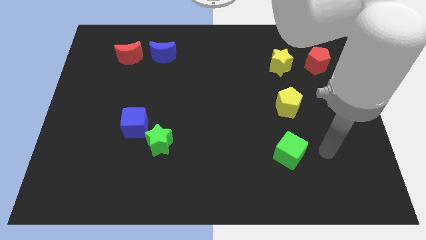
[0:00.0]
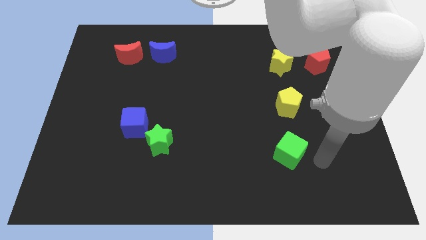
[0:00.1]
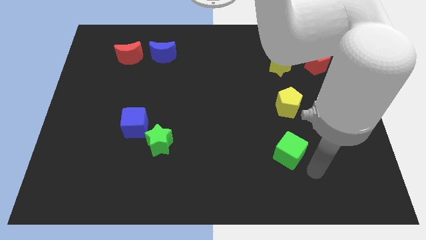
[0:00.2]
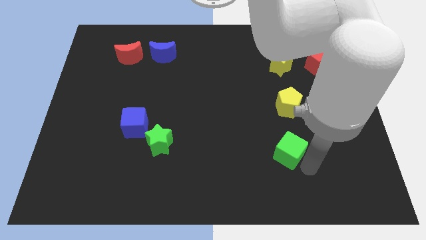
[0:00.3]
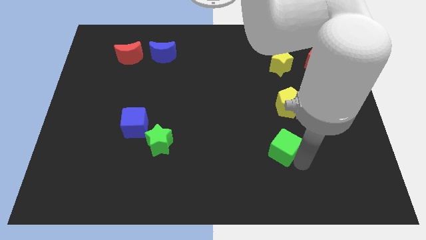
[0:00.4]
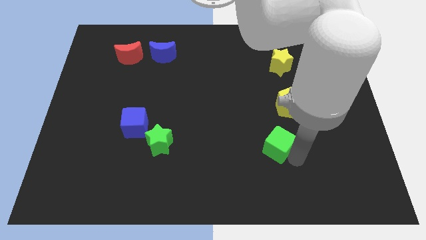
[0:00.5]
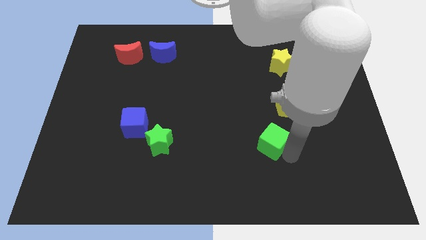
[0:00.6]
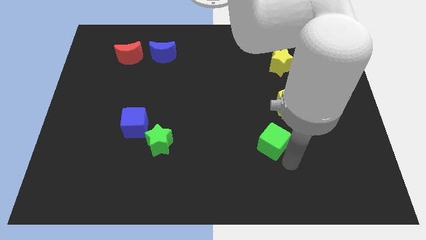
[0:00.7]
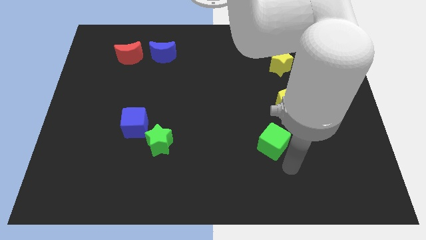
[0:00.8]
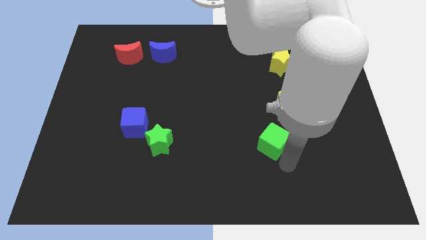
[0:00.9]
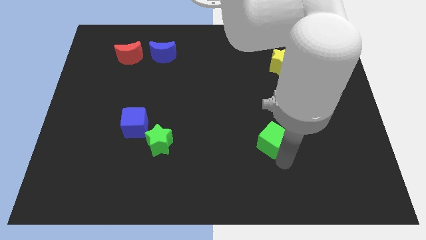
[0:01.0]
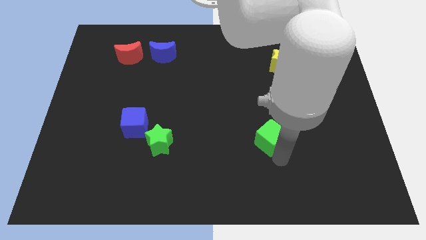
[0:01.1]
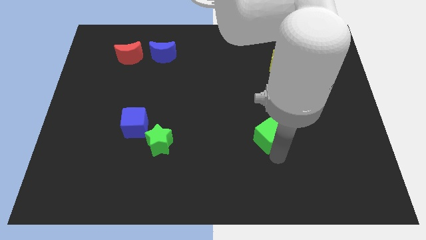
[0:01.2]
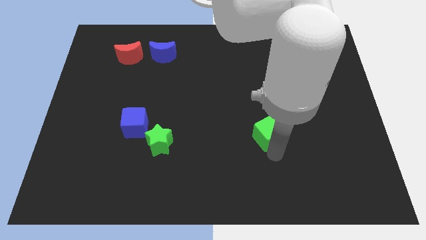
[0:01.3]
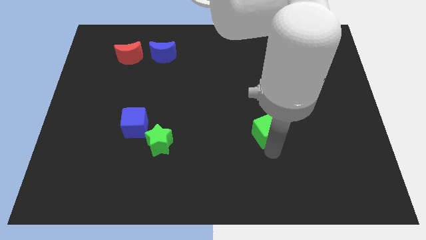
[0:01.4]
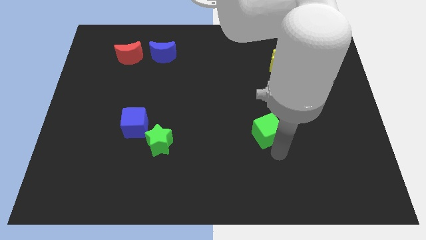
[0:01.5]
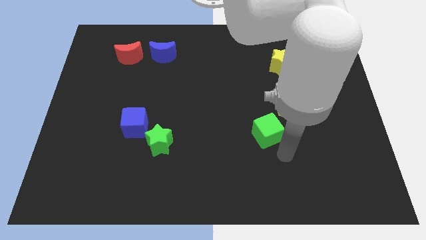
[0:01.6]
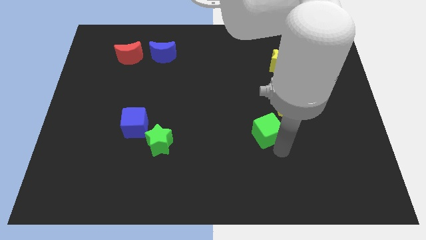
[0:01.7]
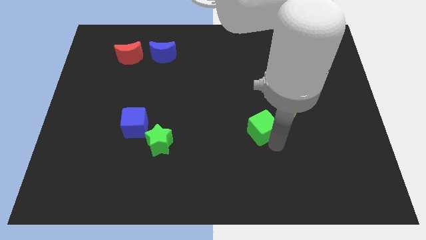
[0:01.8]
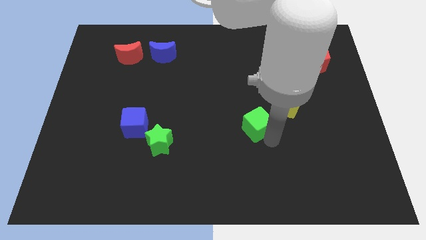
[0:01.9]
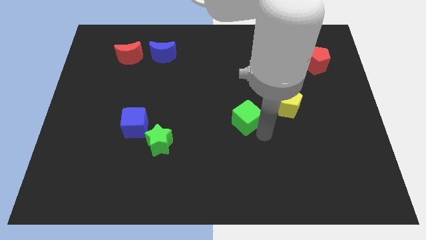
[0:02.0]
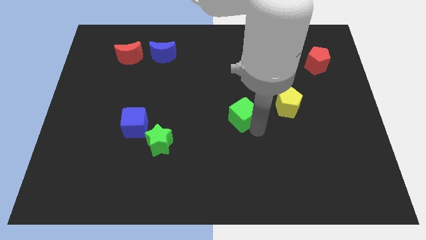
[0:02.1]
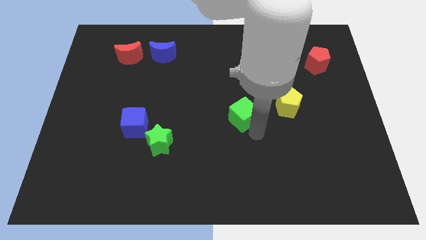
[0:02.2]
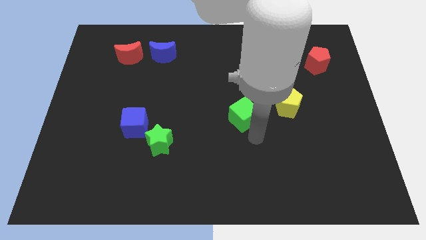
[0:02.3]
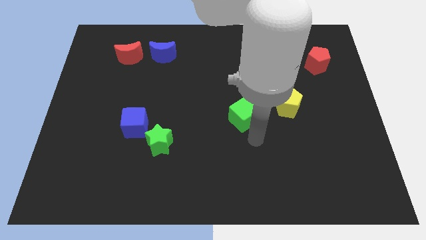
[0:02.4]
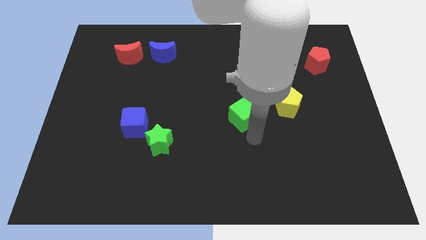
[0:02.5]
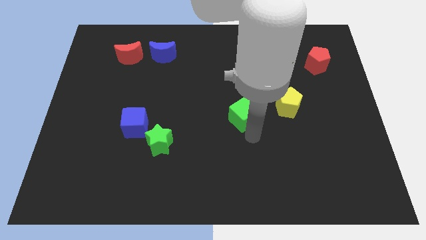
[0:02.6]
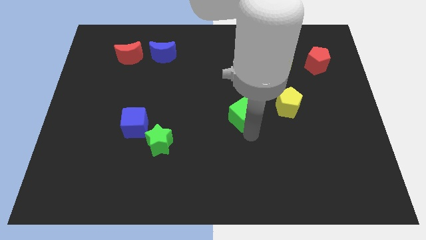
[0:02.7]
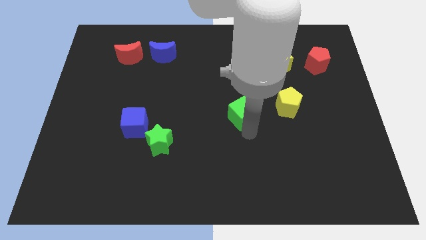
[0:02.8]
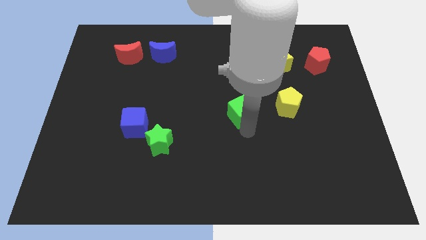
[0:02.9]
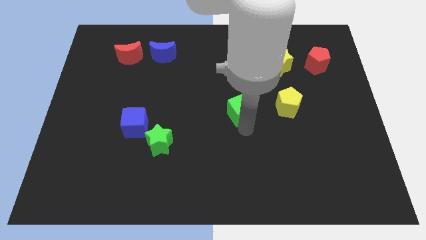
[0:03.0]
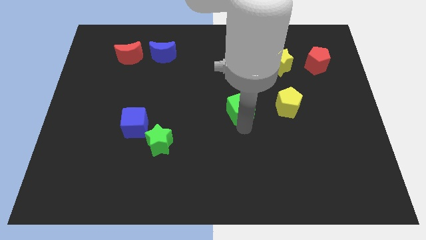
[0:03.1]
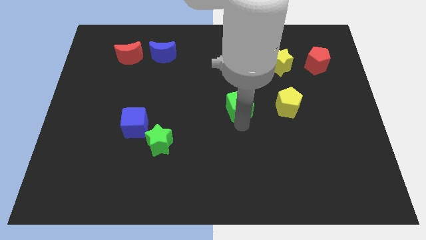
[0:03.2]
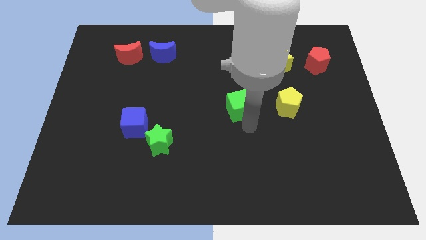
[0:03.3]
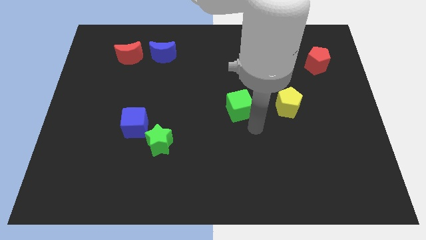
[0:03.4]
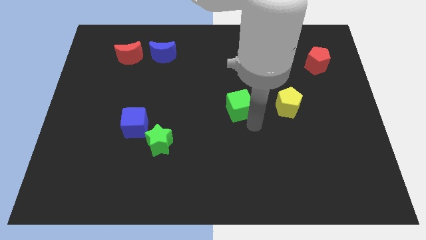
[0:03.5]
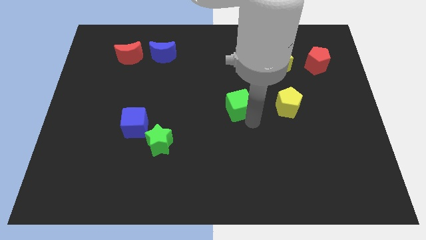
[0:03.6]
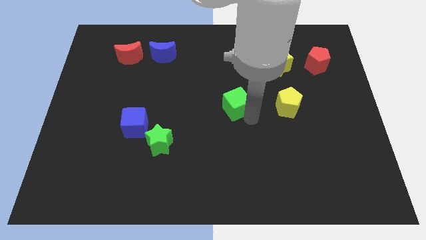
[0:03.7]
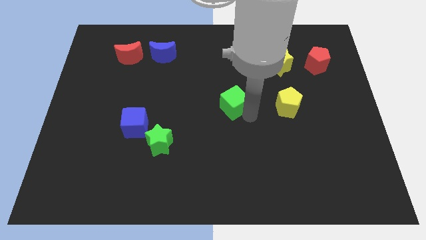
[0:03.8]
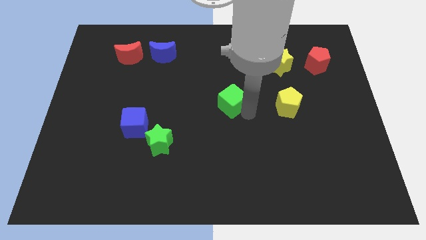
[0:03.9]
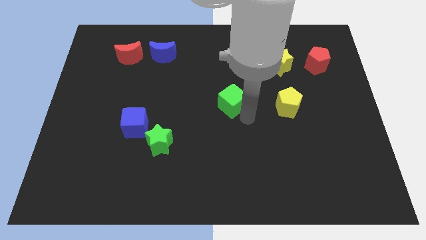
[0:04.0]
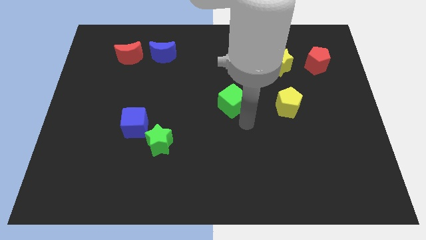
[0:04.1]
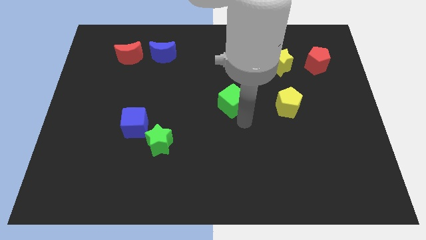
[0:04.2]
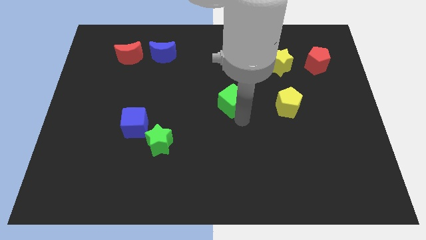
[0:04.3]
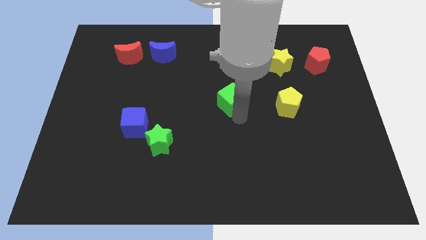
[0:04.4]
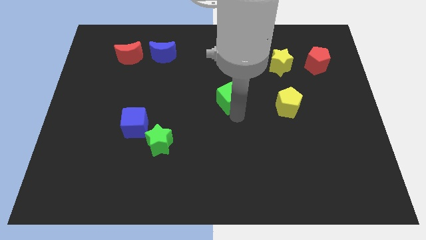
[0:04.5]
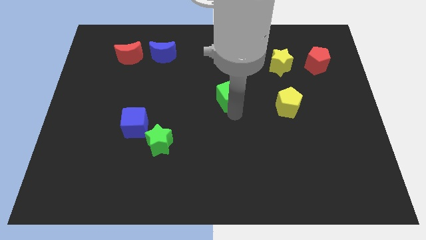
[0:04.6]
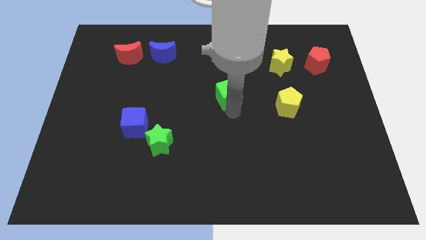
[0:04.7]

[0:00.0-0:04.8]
push the green cube upwards and then to the left

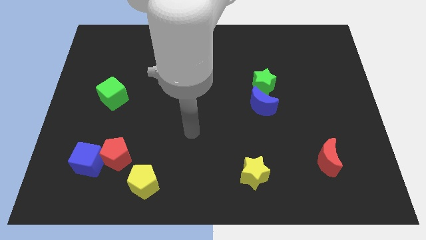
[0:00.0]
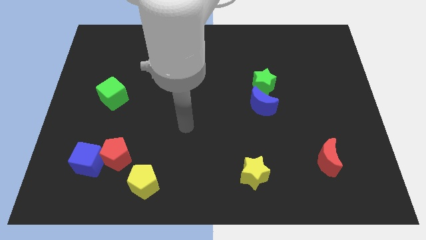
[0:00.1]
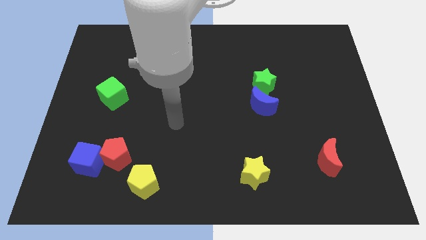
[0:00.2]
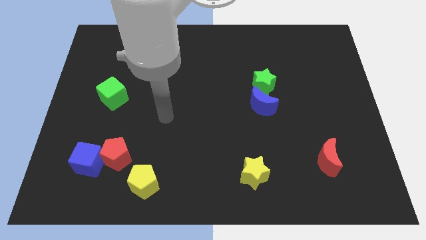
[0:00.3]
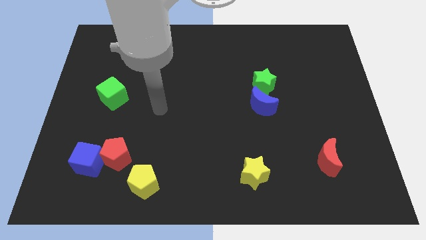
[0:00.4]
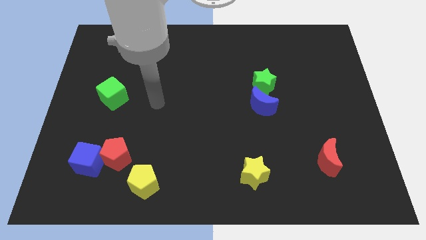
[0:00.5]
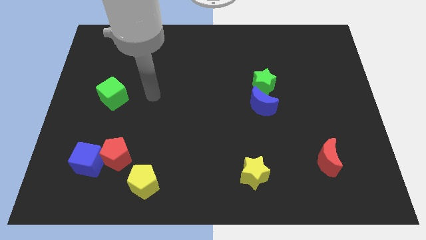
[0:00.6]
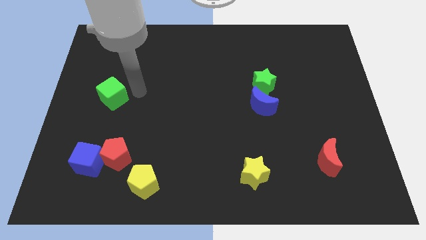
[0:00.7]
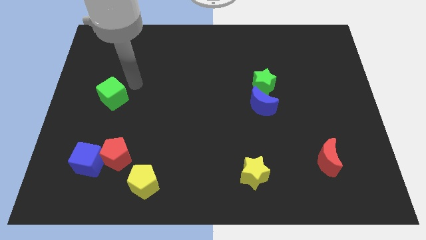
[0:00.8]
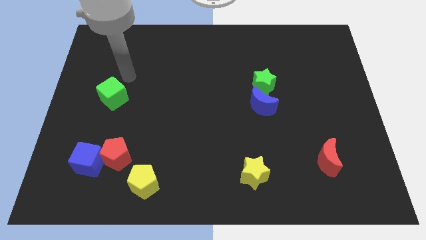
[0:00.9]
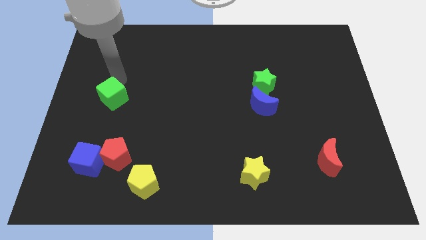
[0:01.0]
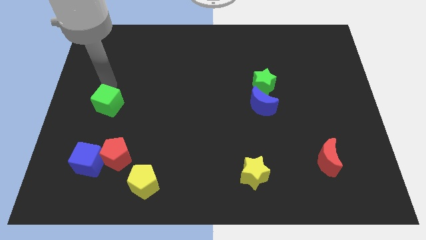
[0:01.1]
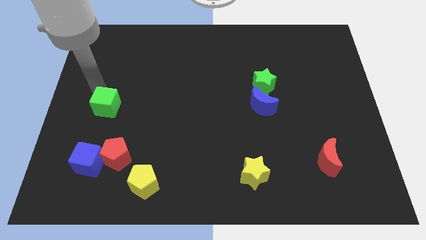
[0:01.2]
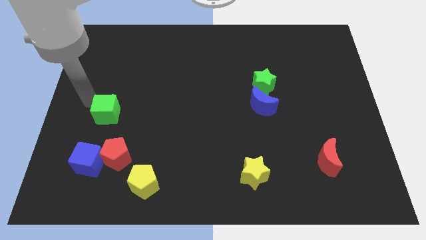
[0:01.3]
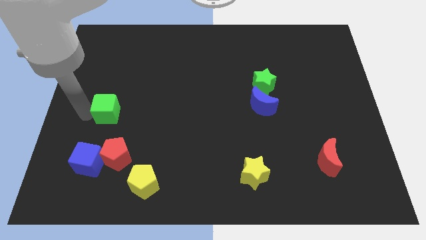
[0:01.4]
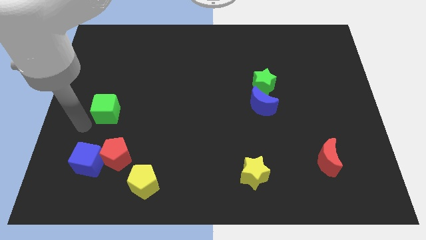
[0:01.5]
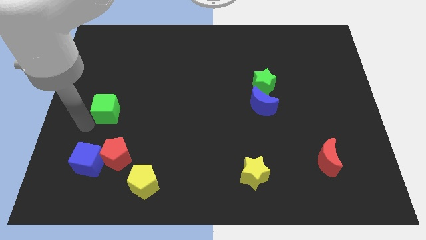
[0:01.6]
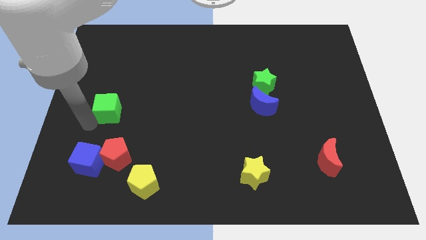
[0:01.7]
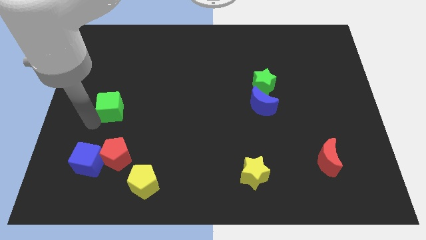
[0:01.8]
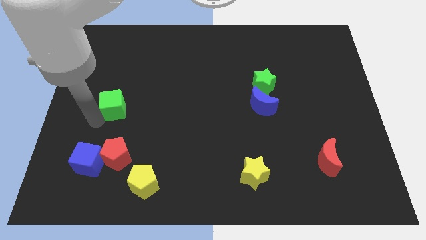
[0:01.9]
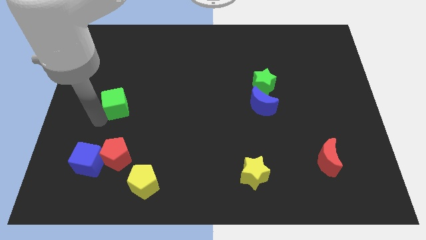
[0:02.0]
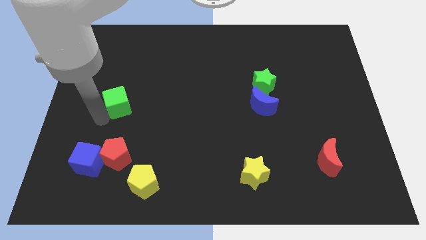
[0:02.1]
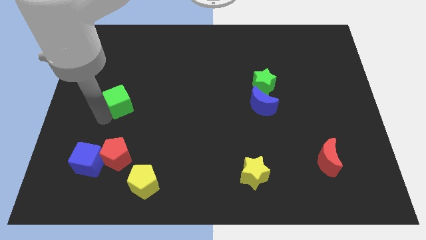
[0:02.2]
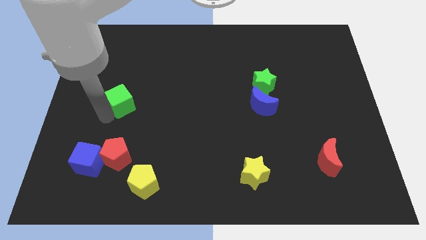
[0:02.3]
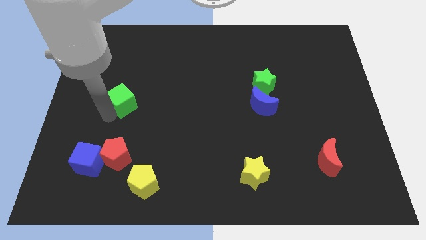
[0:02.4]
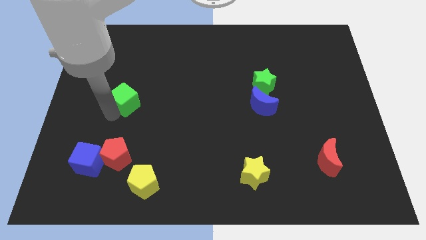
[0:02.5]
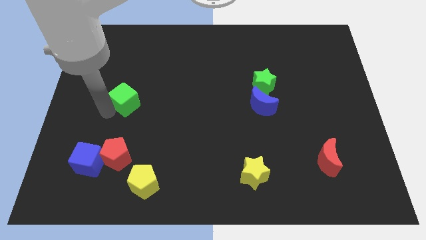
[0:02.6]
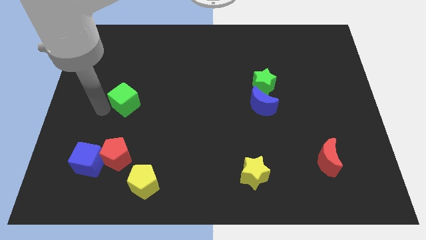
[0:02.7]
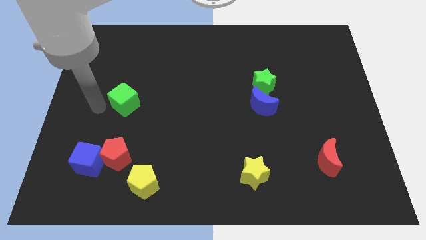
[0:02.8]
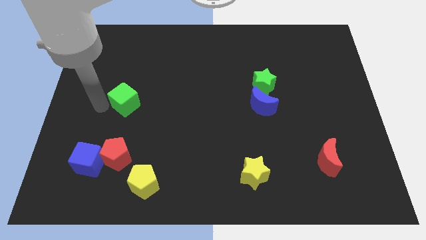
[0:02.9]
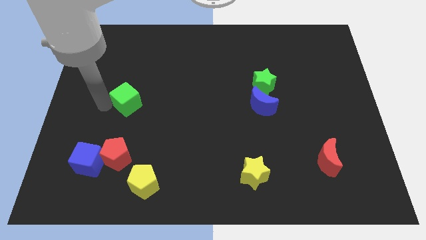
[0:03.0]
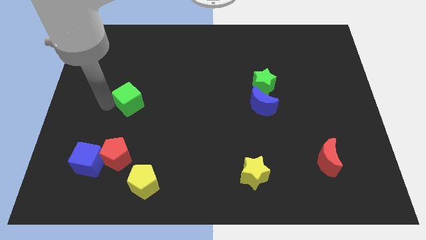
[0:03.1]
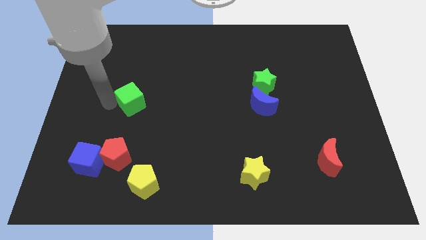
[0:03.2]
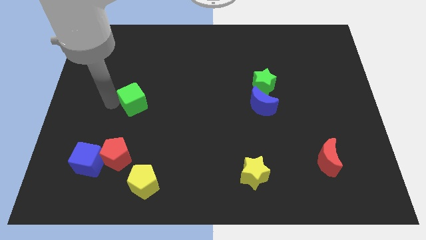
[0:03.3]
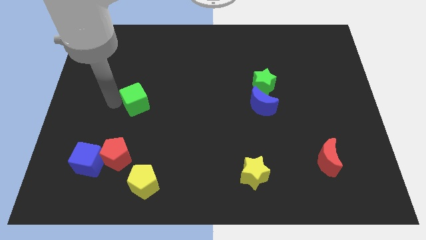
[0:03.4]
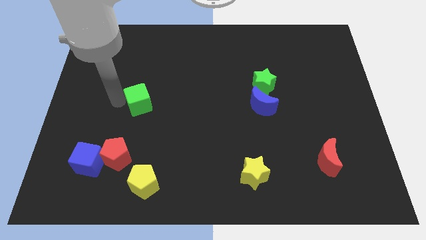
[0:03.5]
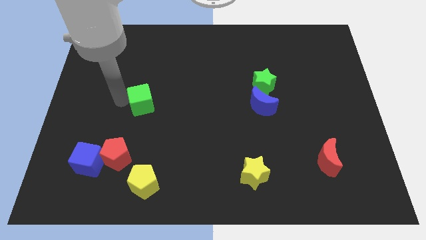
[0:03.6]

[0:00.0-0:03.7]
push the green cube to the right somewhat

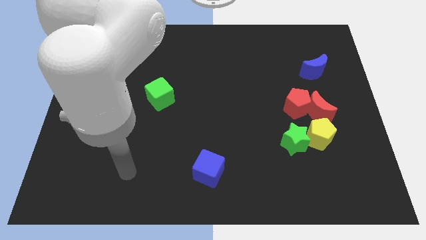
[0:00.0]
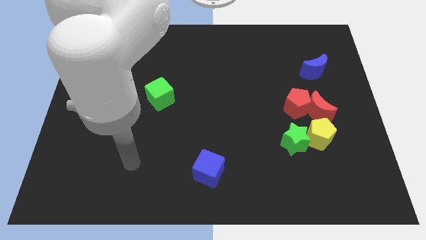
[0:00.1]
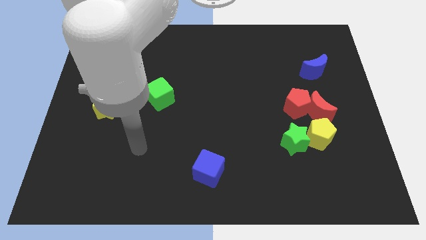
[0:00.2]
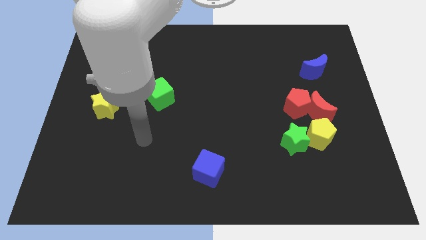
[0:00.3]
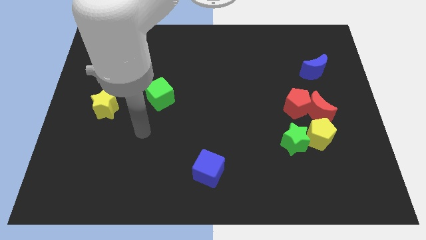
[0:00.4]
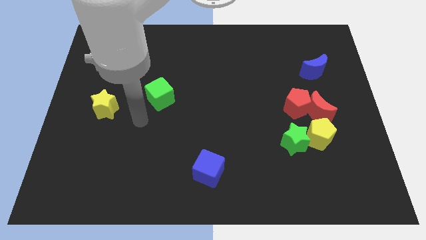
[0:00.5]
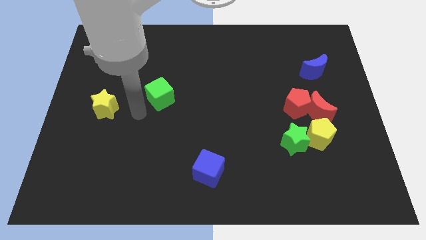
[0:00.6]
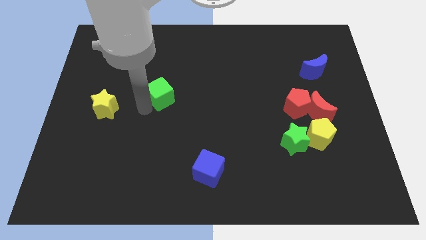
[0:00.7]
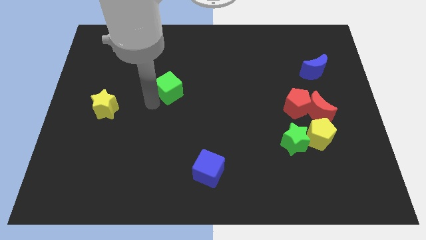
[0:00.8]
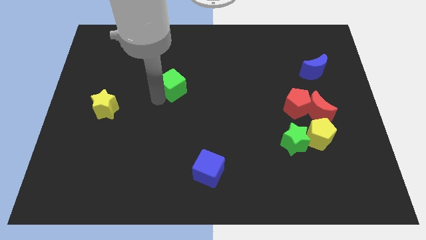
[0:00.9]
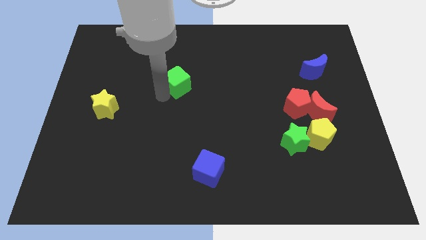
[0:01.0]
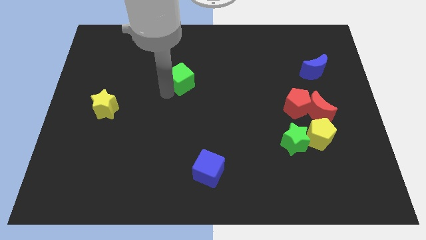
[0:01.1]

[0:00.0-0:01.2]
move the green cube somewhat upwards and to the right diagonally
